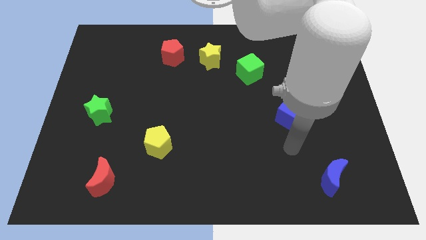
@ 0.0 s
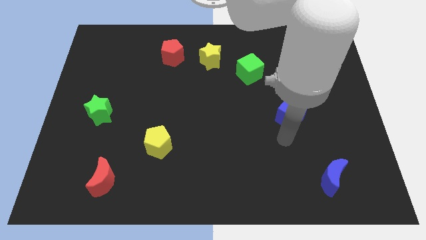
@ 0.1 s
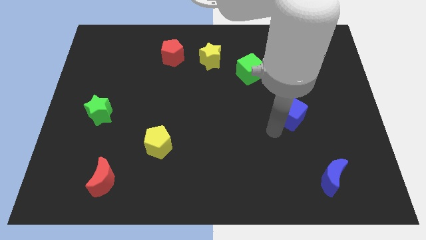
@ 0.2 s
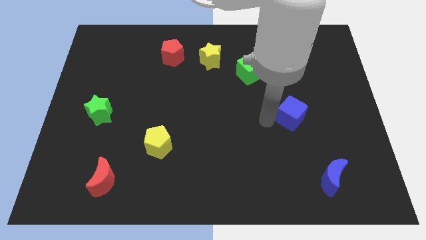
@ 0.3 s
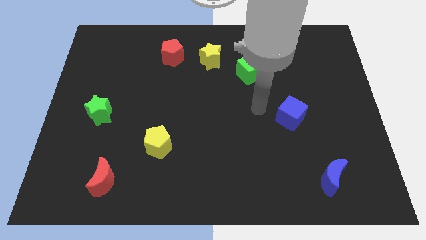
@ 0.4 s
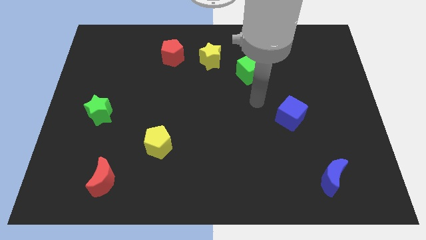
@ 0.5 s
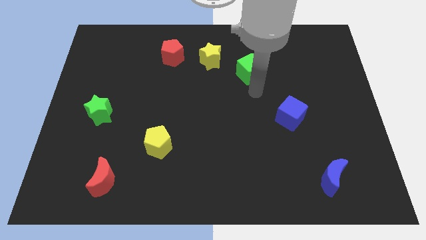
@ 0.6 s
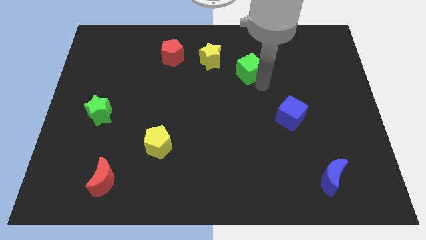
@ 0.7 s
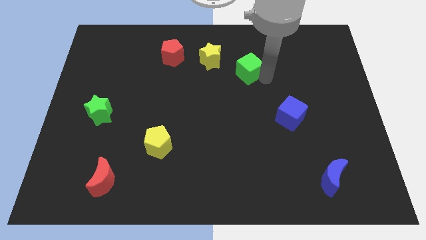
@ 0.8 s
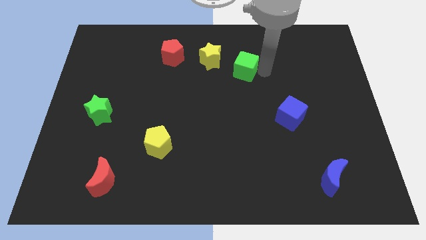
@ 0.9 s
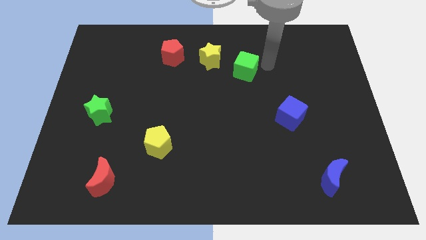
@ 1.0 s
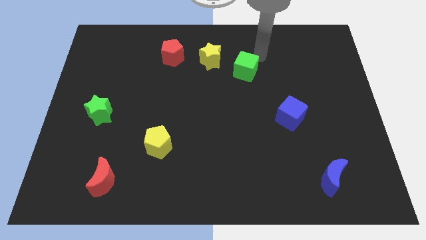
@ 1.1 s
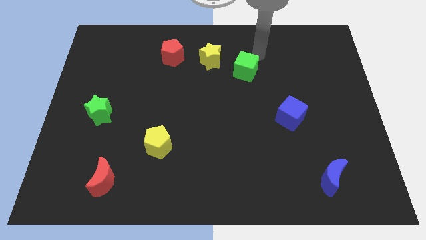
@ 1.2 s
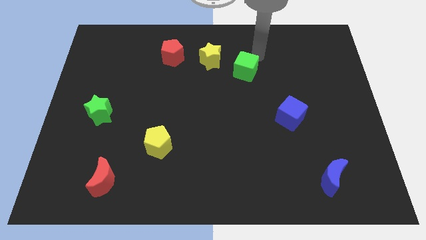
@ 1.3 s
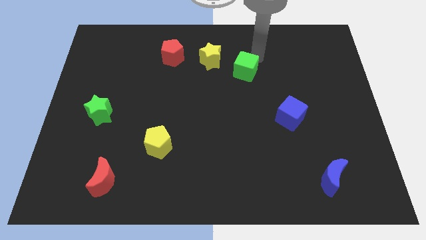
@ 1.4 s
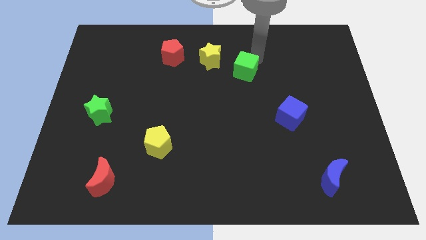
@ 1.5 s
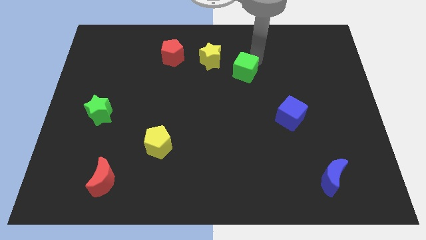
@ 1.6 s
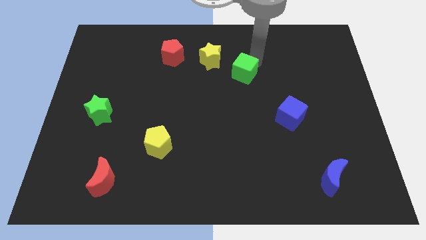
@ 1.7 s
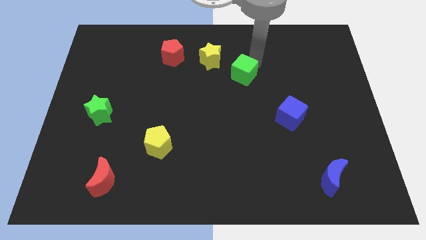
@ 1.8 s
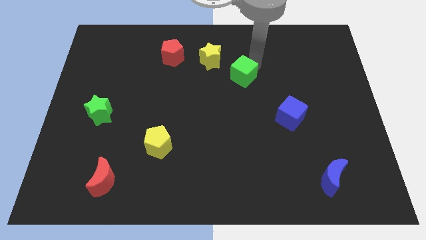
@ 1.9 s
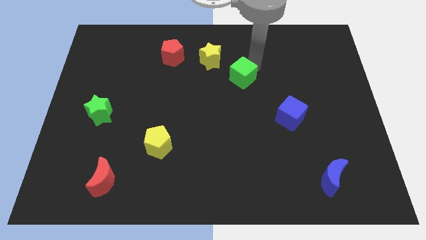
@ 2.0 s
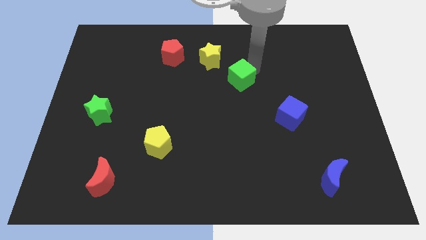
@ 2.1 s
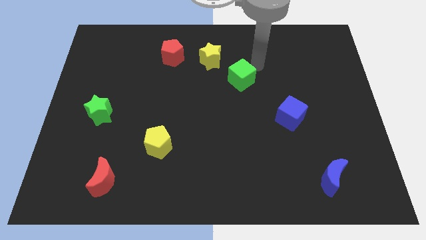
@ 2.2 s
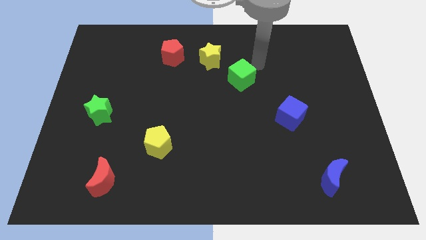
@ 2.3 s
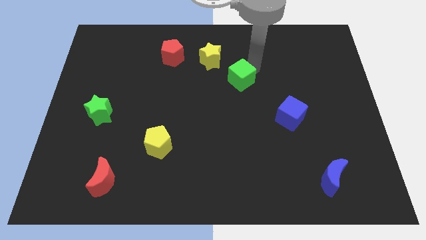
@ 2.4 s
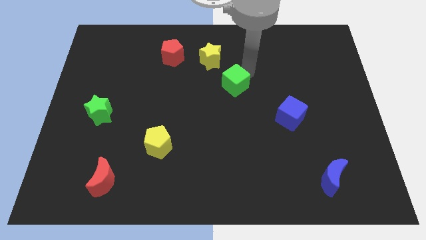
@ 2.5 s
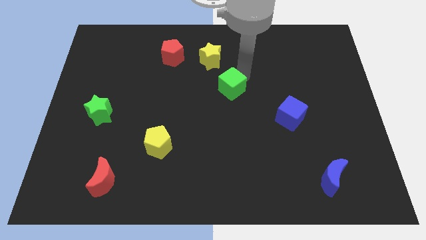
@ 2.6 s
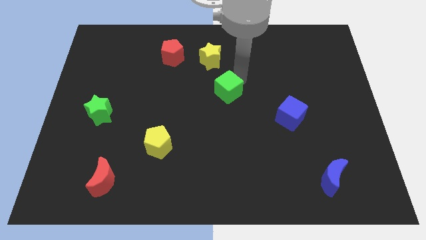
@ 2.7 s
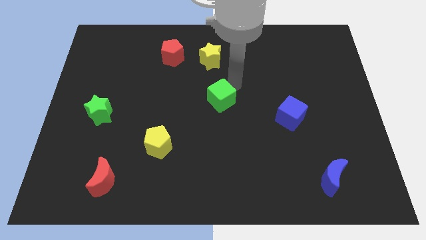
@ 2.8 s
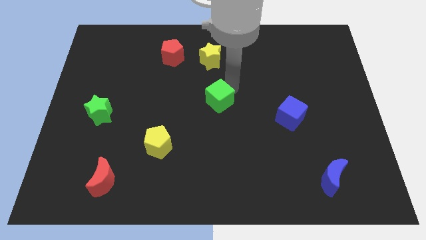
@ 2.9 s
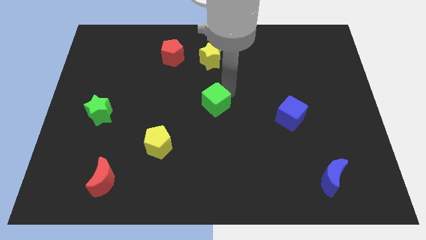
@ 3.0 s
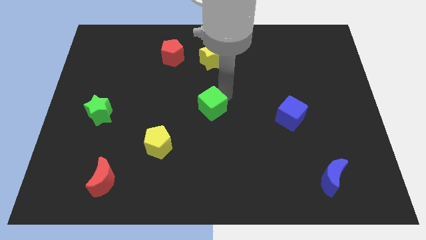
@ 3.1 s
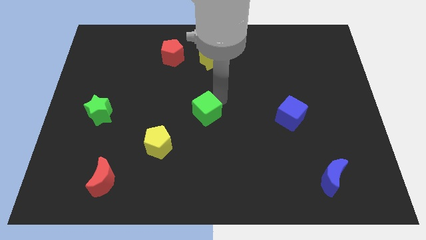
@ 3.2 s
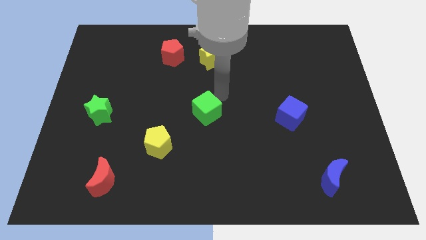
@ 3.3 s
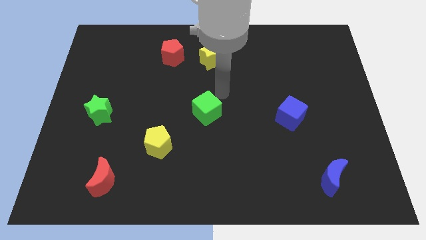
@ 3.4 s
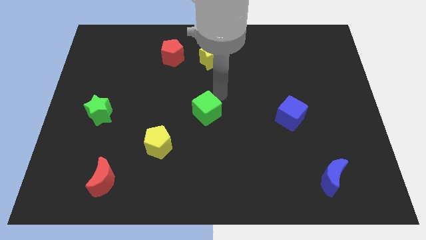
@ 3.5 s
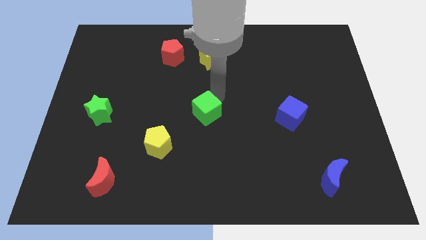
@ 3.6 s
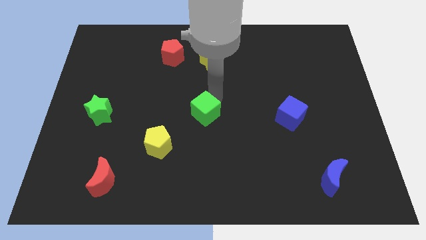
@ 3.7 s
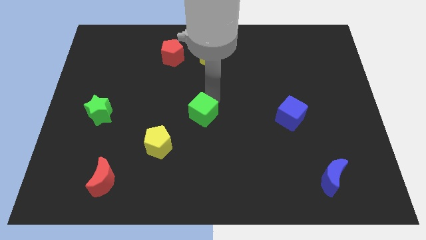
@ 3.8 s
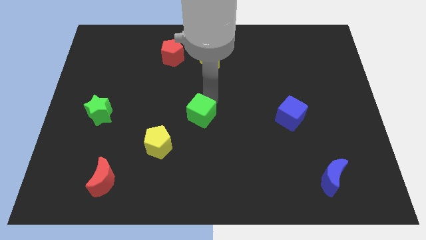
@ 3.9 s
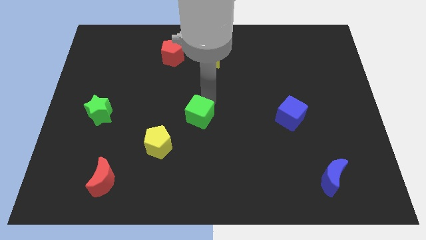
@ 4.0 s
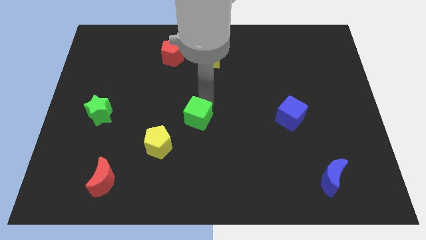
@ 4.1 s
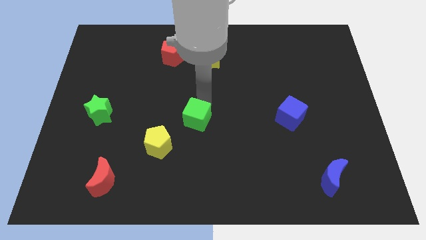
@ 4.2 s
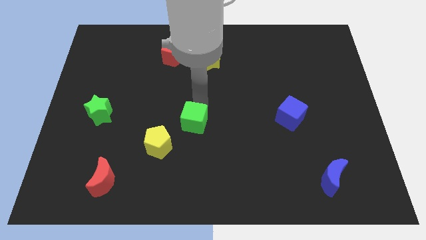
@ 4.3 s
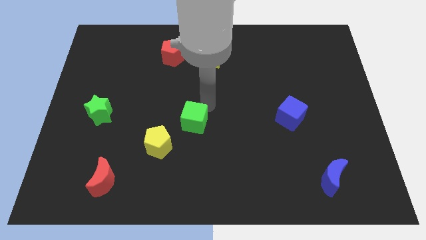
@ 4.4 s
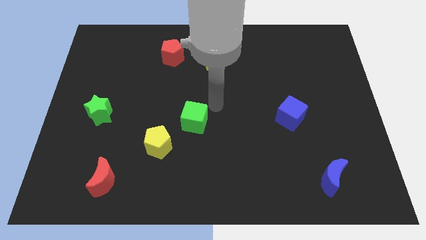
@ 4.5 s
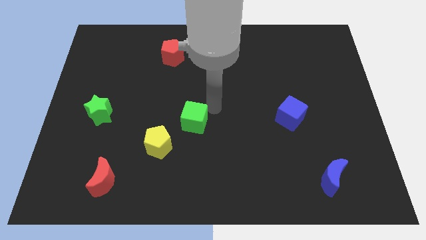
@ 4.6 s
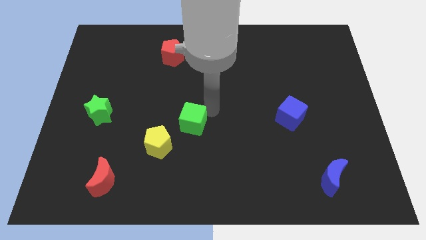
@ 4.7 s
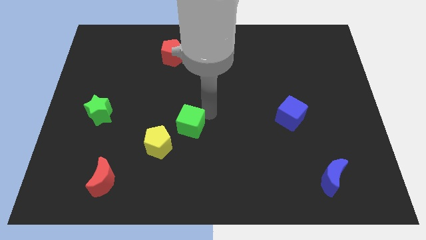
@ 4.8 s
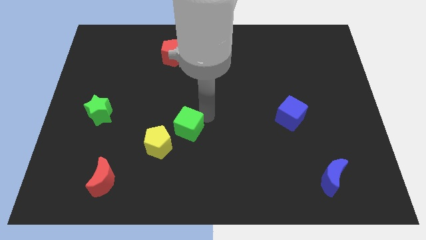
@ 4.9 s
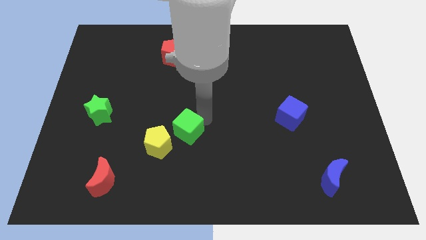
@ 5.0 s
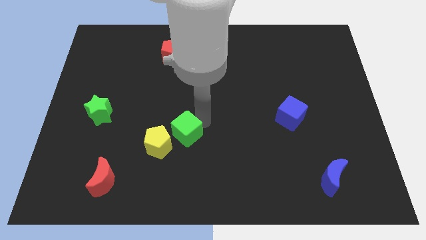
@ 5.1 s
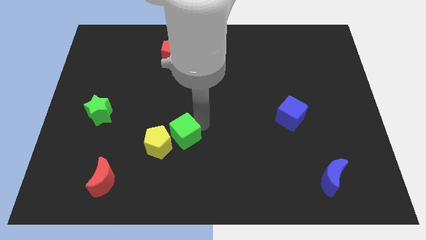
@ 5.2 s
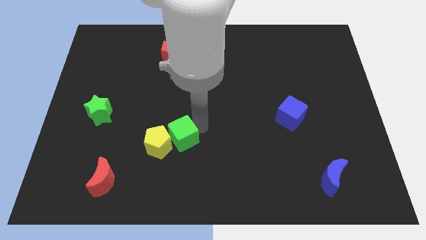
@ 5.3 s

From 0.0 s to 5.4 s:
slide the green cube next to the yellow pentagon

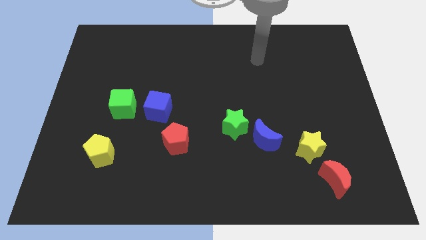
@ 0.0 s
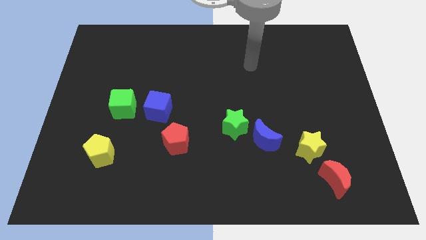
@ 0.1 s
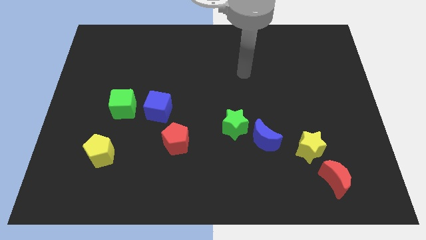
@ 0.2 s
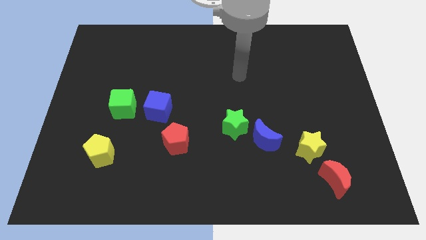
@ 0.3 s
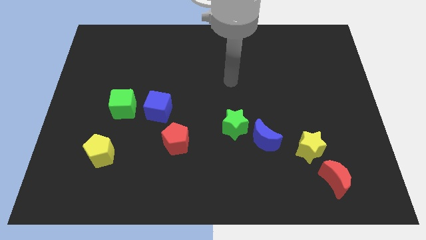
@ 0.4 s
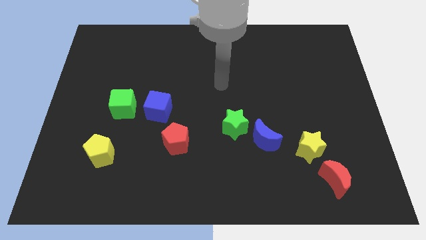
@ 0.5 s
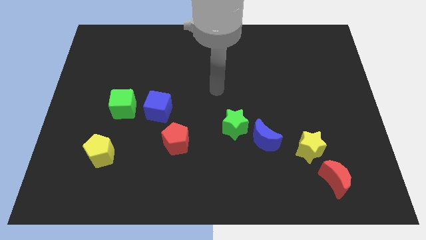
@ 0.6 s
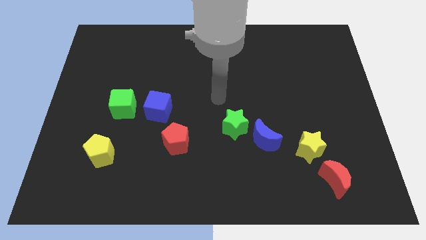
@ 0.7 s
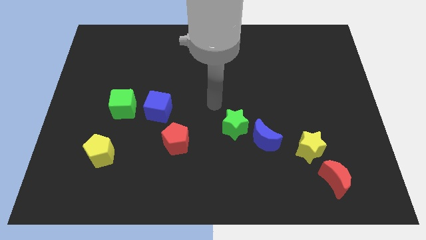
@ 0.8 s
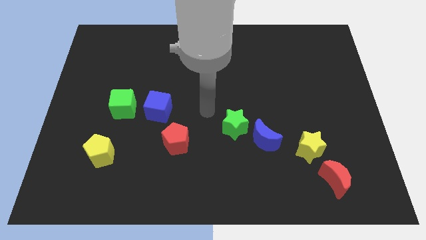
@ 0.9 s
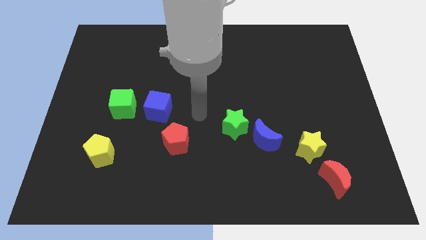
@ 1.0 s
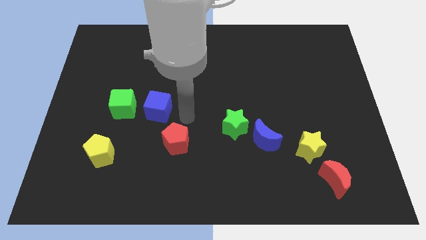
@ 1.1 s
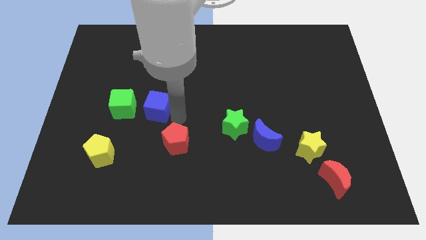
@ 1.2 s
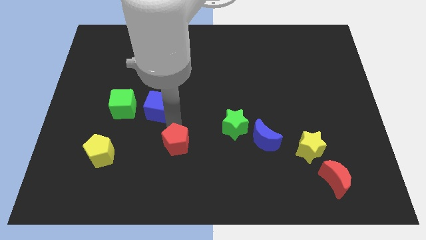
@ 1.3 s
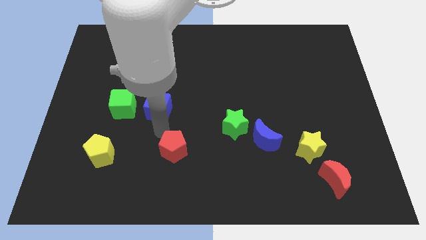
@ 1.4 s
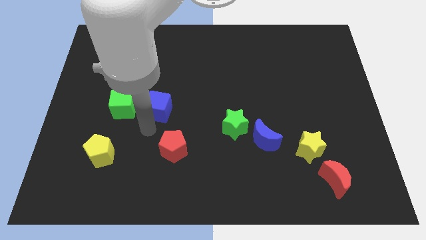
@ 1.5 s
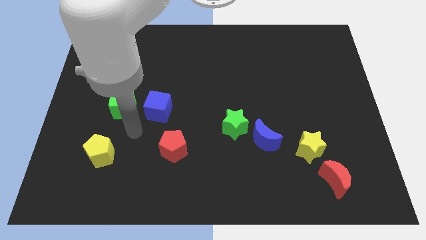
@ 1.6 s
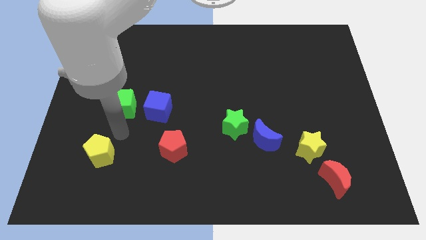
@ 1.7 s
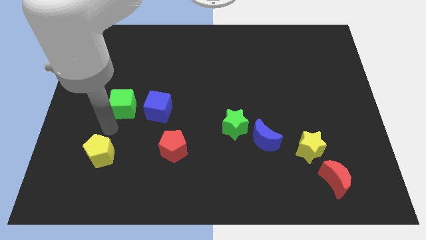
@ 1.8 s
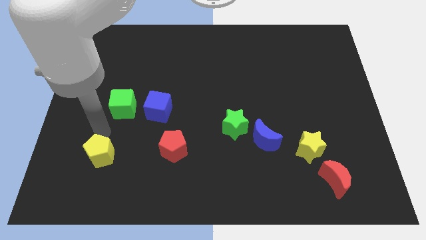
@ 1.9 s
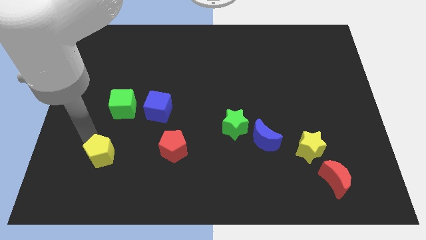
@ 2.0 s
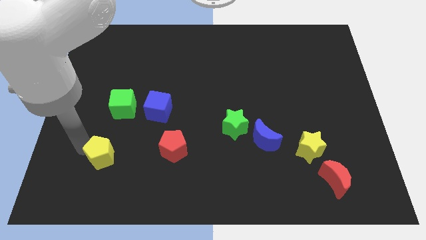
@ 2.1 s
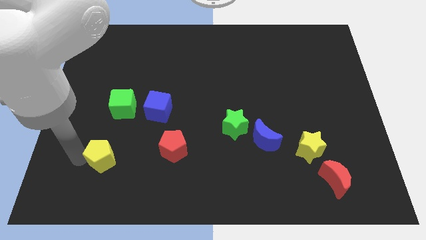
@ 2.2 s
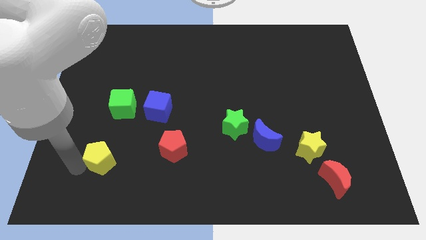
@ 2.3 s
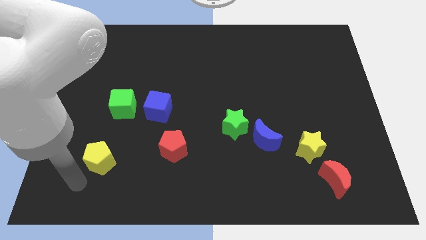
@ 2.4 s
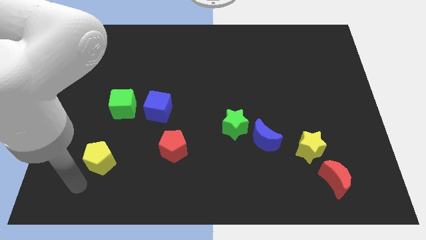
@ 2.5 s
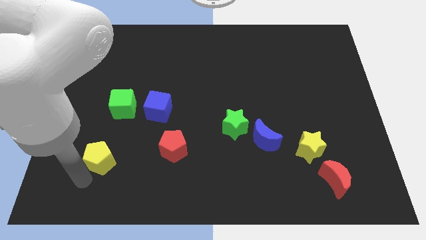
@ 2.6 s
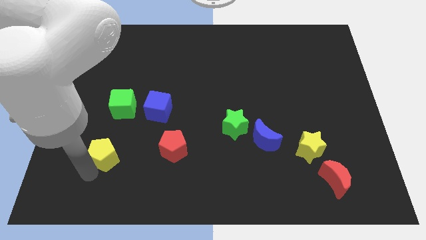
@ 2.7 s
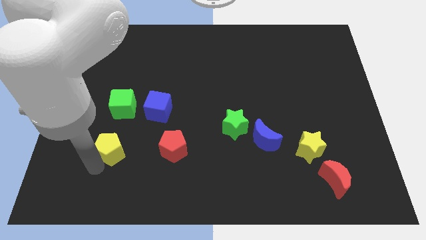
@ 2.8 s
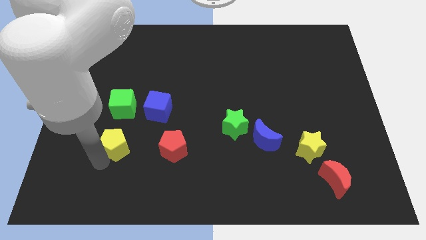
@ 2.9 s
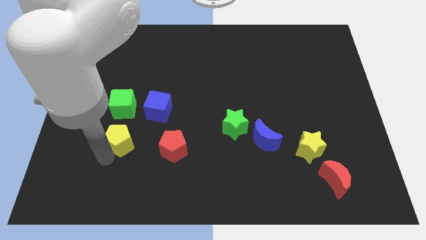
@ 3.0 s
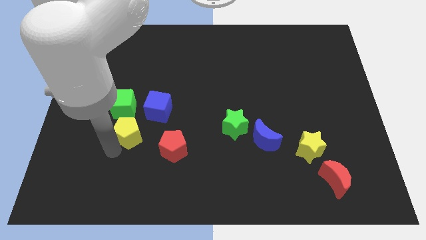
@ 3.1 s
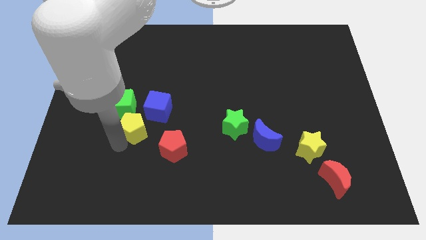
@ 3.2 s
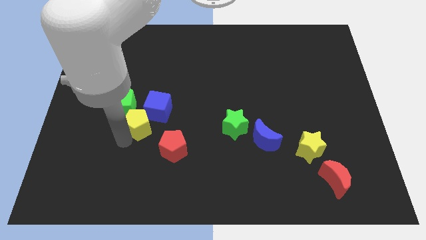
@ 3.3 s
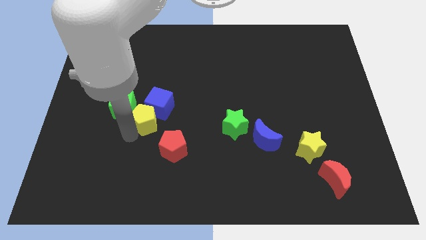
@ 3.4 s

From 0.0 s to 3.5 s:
slide the yellow pentagon to the blue cube
